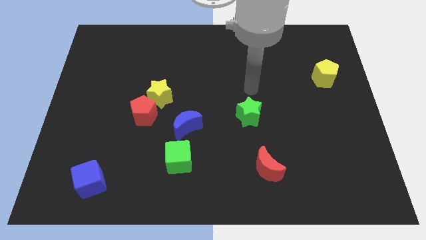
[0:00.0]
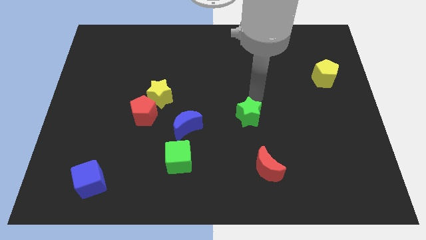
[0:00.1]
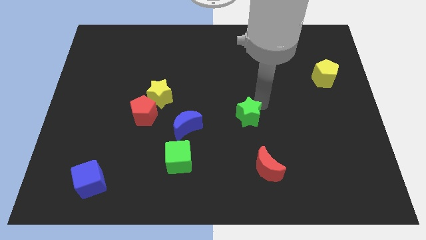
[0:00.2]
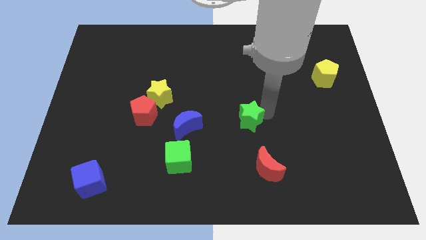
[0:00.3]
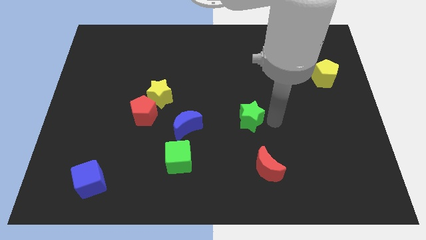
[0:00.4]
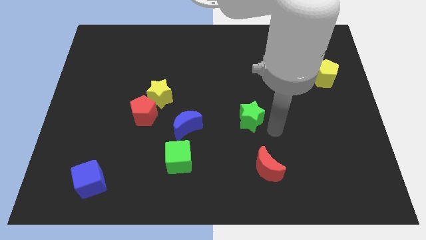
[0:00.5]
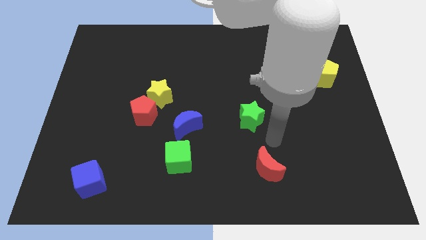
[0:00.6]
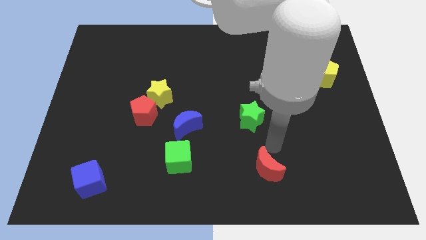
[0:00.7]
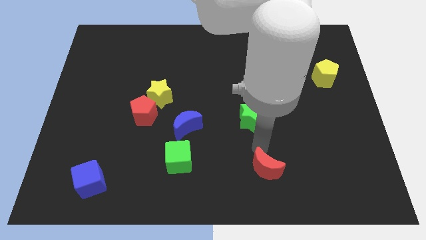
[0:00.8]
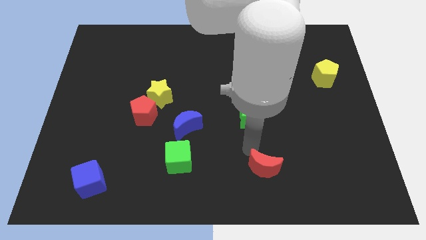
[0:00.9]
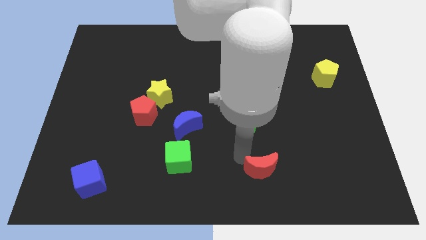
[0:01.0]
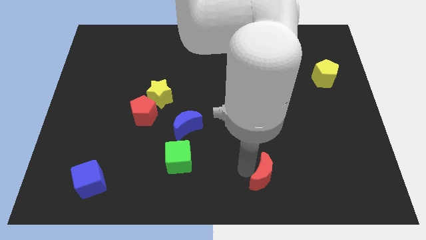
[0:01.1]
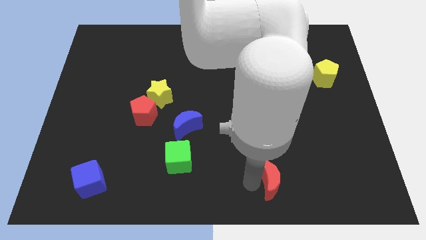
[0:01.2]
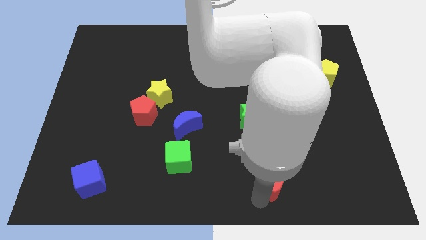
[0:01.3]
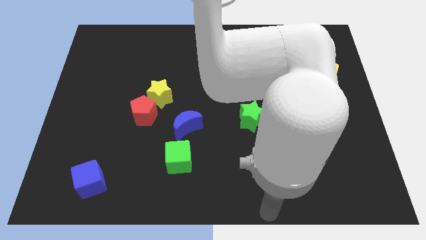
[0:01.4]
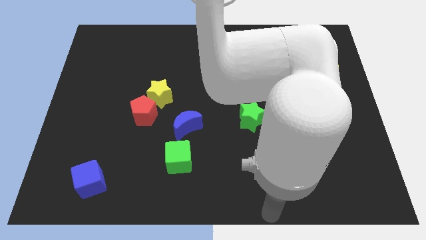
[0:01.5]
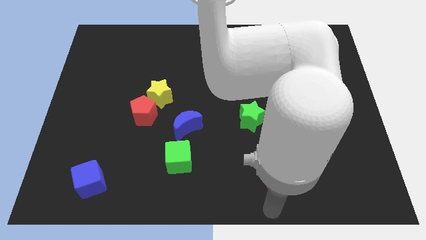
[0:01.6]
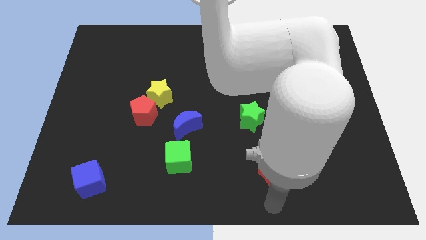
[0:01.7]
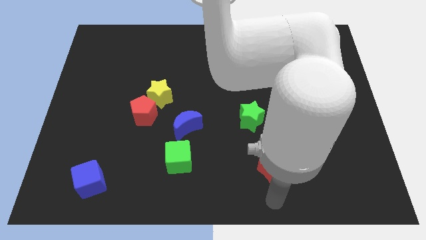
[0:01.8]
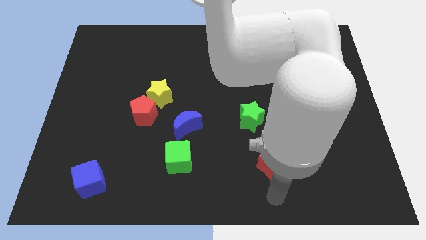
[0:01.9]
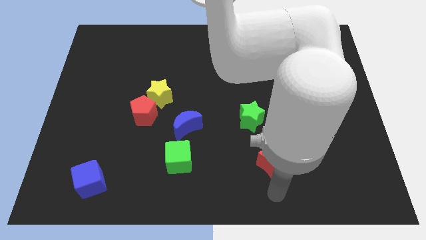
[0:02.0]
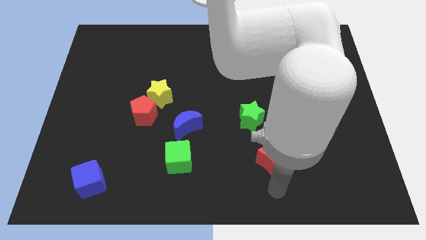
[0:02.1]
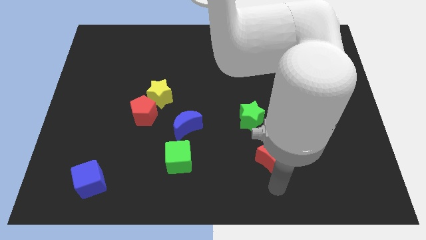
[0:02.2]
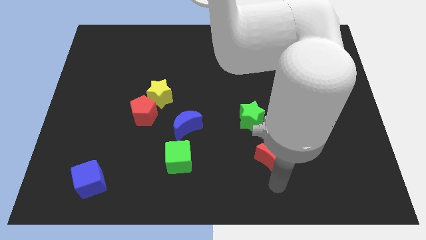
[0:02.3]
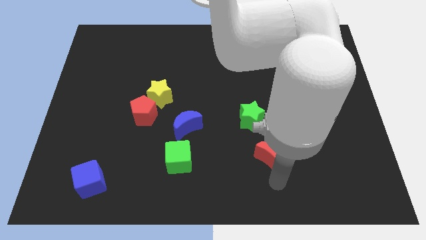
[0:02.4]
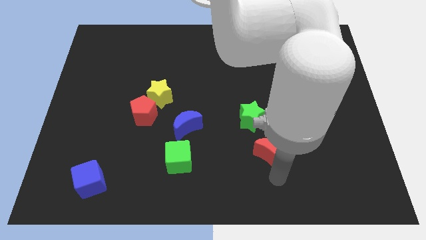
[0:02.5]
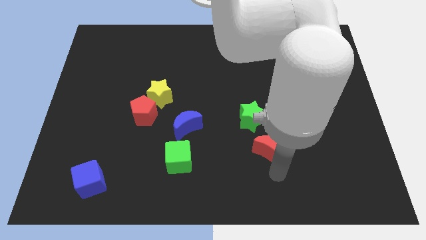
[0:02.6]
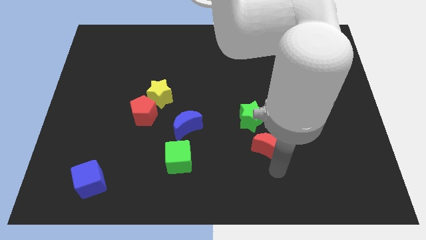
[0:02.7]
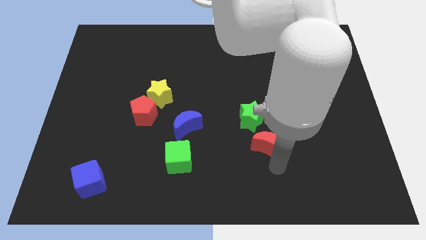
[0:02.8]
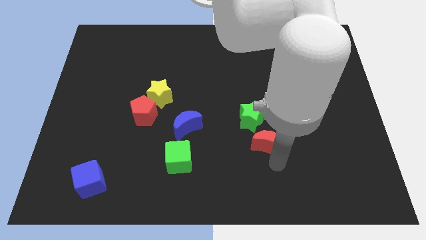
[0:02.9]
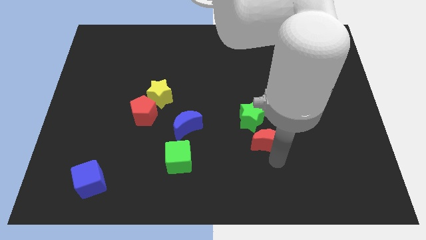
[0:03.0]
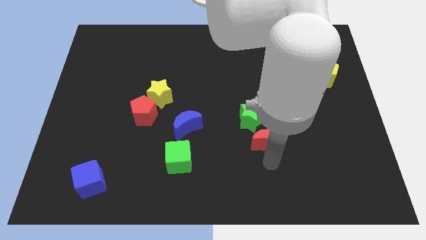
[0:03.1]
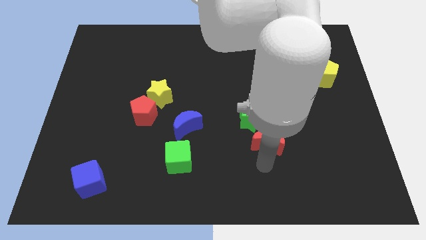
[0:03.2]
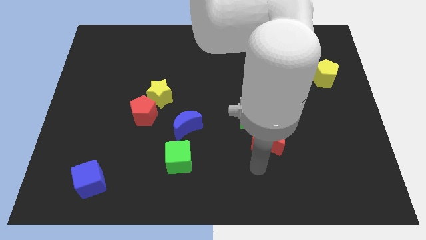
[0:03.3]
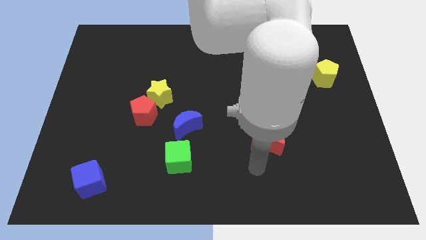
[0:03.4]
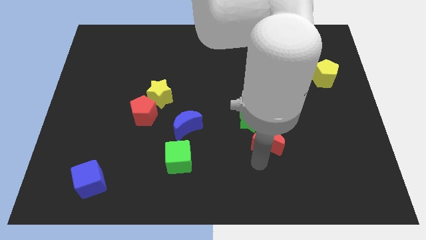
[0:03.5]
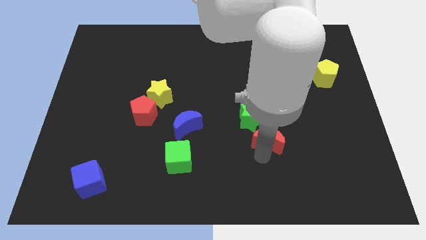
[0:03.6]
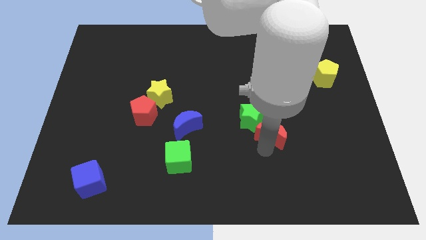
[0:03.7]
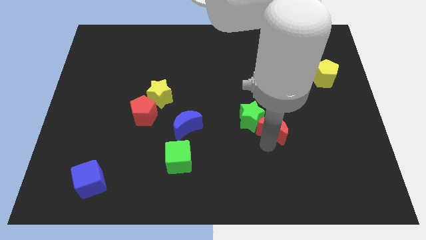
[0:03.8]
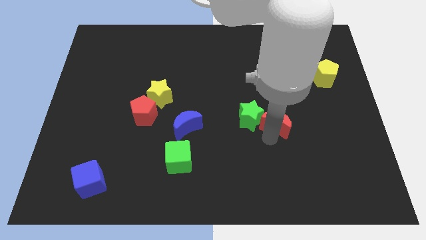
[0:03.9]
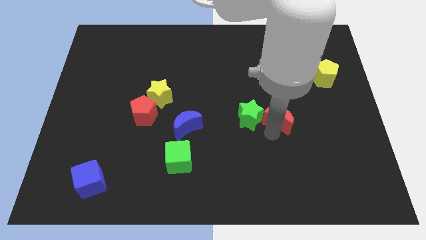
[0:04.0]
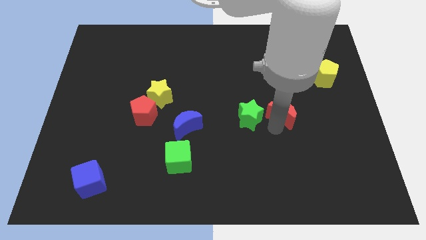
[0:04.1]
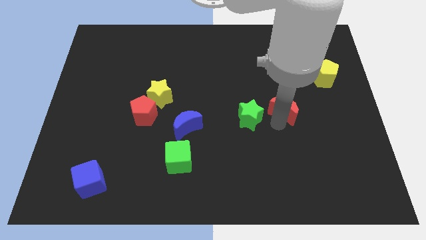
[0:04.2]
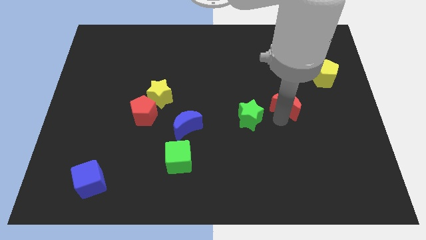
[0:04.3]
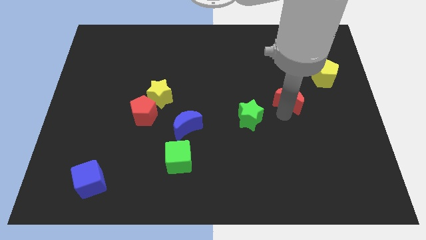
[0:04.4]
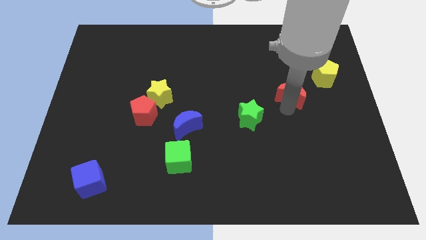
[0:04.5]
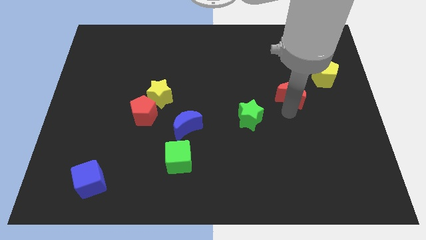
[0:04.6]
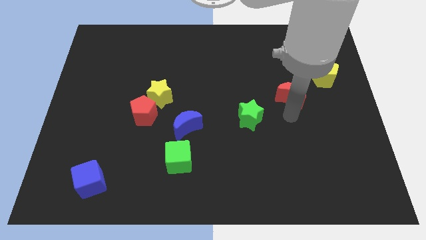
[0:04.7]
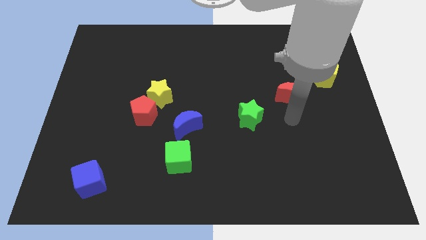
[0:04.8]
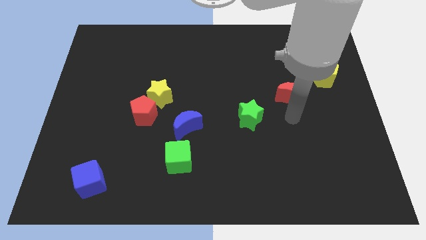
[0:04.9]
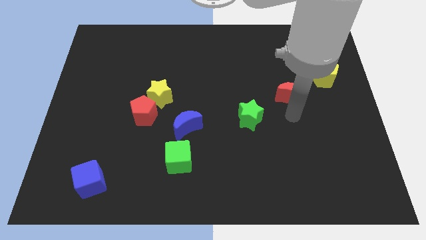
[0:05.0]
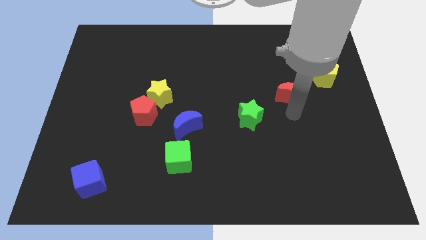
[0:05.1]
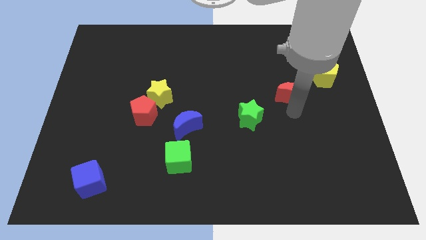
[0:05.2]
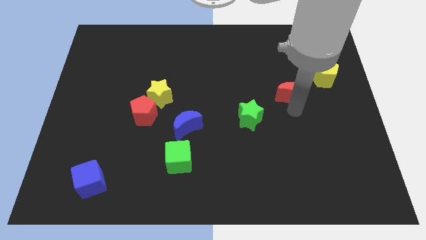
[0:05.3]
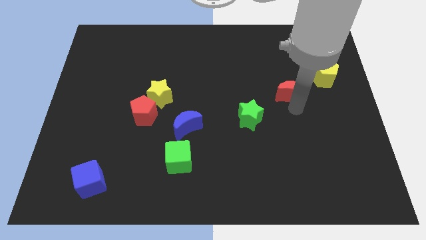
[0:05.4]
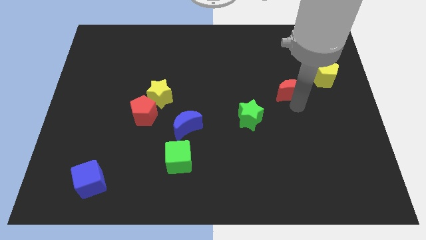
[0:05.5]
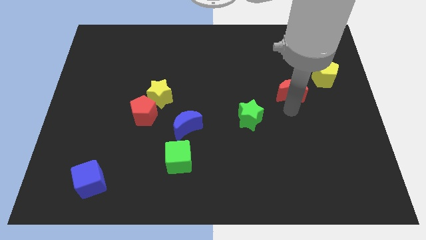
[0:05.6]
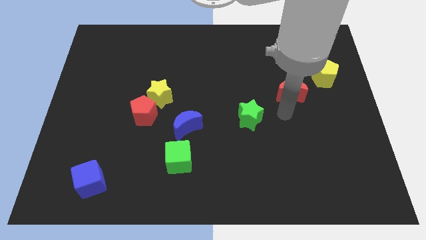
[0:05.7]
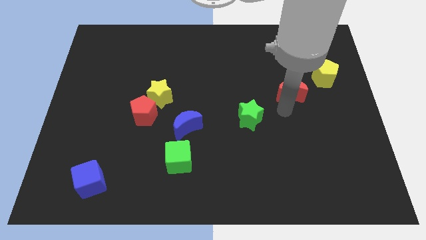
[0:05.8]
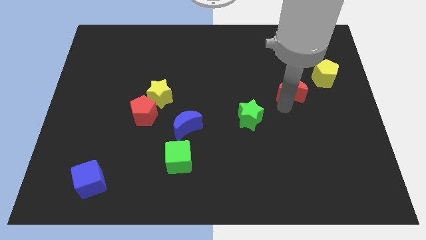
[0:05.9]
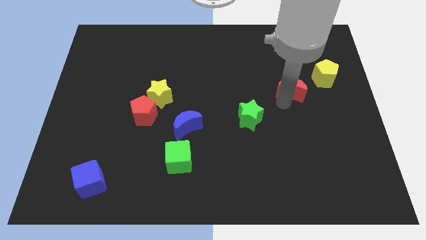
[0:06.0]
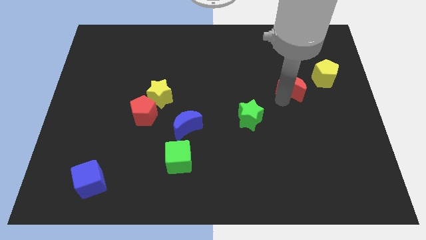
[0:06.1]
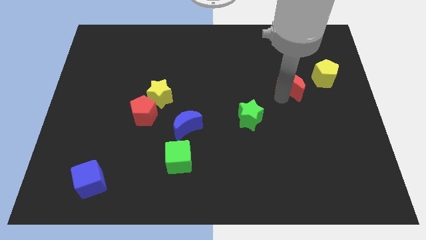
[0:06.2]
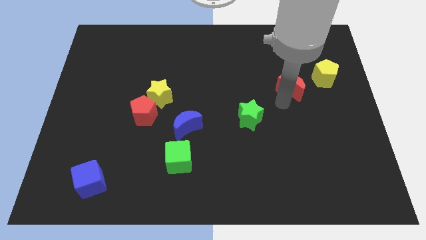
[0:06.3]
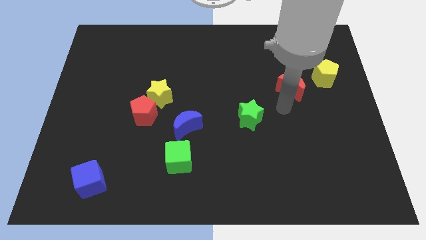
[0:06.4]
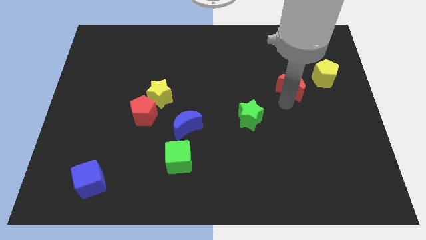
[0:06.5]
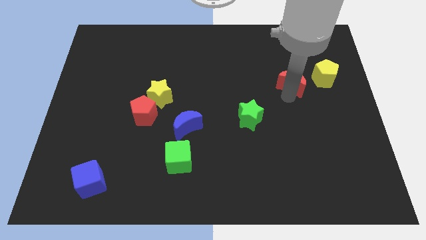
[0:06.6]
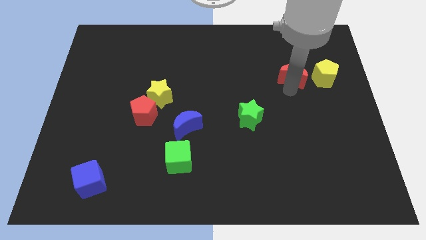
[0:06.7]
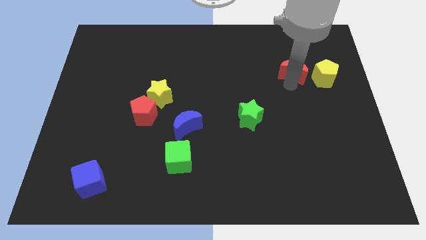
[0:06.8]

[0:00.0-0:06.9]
put the red moon diagonally up and to the left of the yellow pentagon

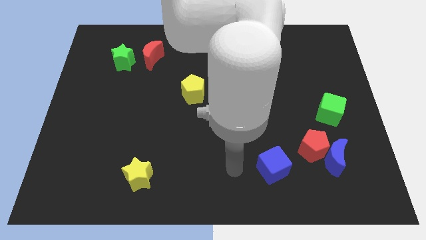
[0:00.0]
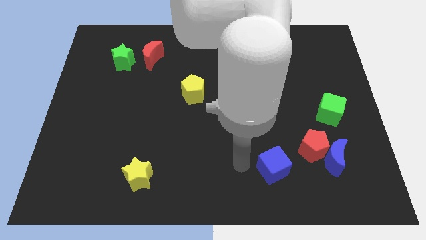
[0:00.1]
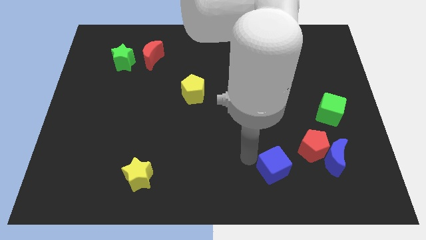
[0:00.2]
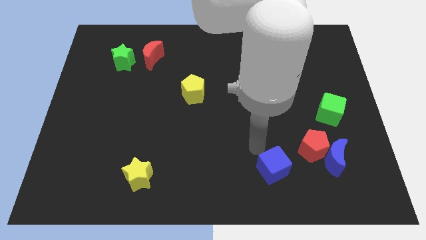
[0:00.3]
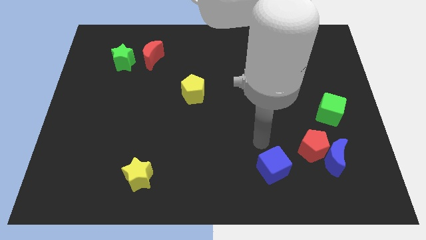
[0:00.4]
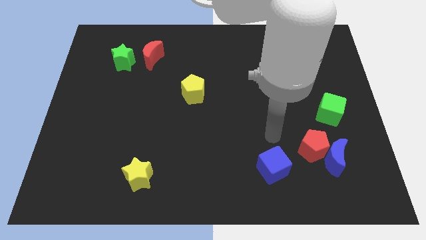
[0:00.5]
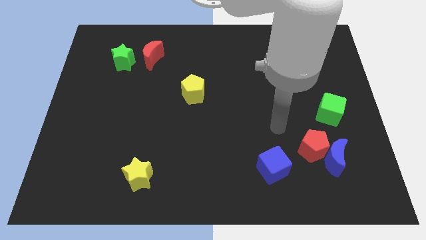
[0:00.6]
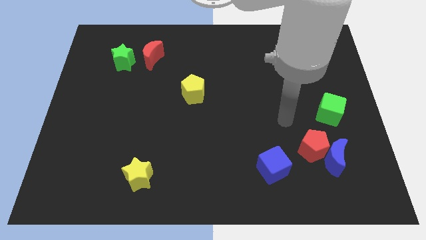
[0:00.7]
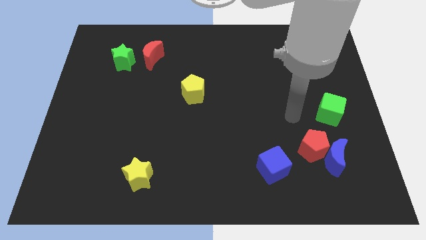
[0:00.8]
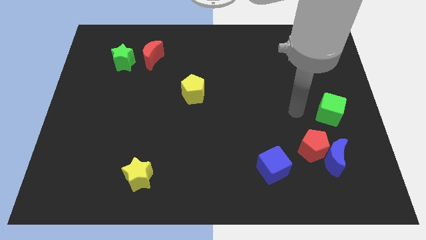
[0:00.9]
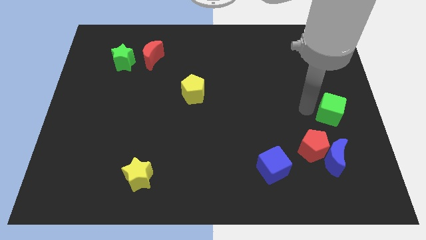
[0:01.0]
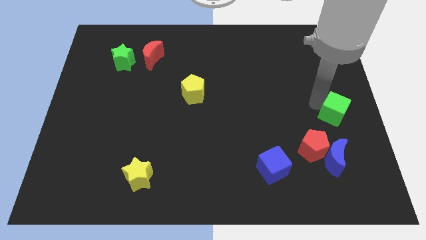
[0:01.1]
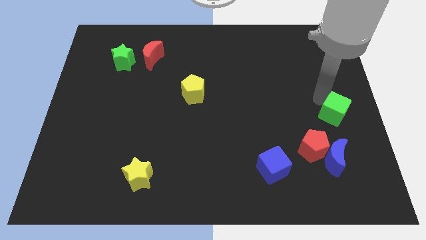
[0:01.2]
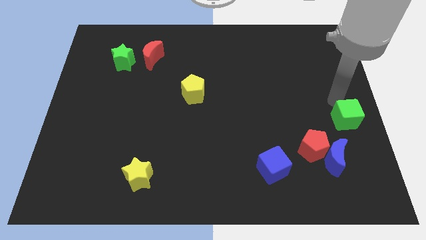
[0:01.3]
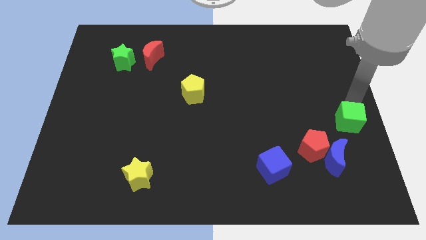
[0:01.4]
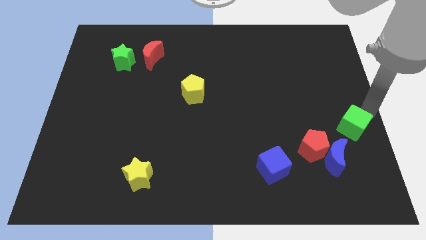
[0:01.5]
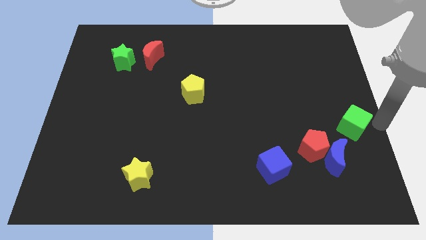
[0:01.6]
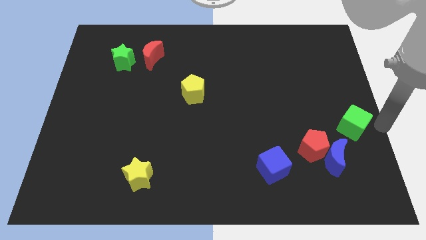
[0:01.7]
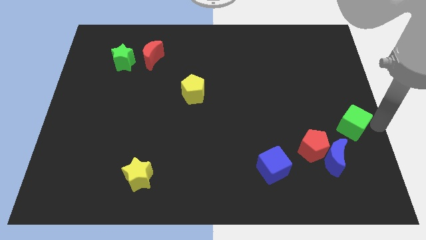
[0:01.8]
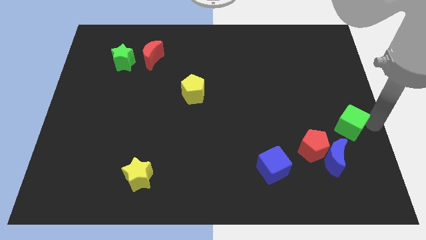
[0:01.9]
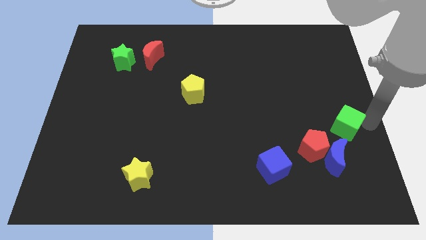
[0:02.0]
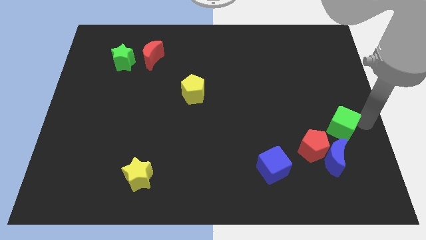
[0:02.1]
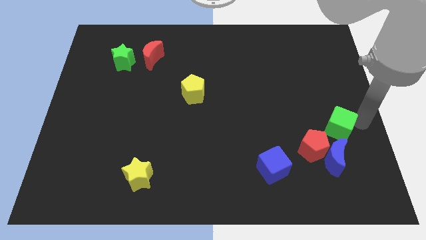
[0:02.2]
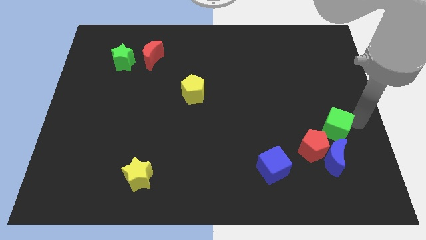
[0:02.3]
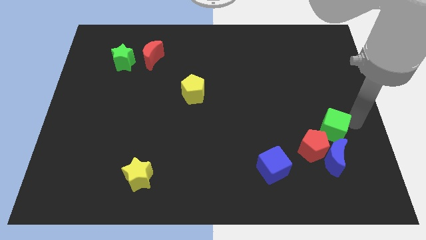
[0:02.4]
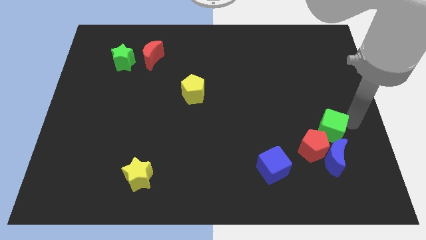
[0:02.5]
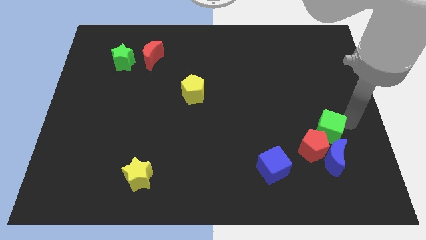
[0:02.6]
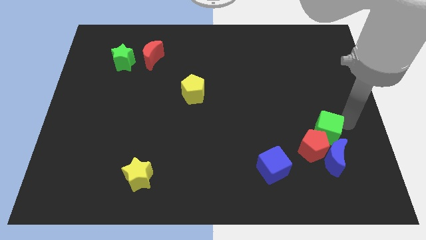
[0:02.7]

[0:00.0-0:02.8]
move the green cube to the top left side of the blue moon
